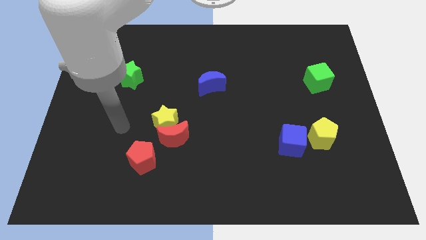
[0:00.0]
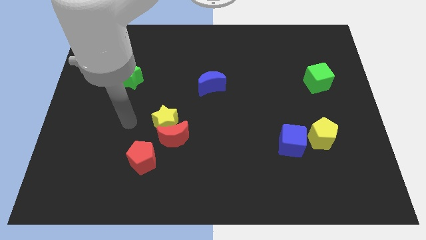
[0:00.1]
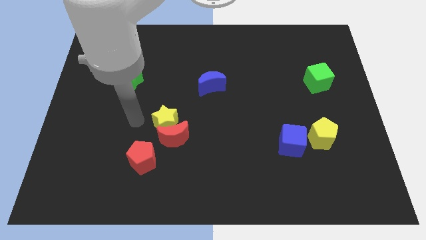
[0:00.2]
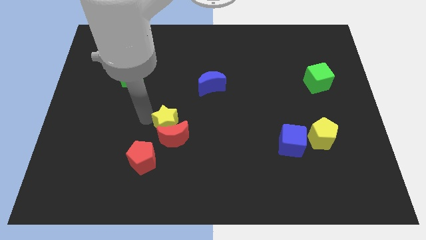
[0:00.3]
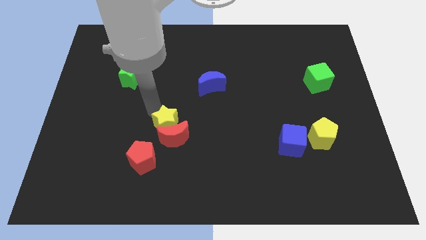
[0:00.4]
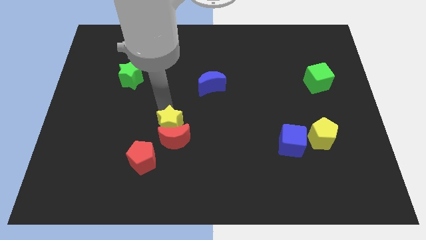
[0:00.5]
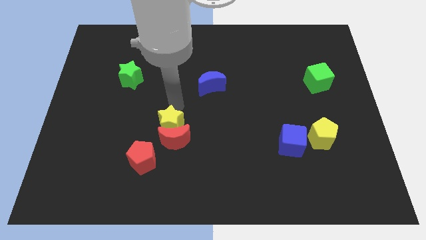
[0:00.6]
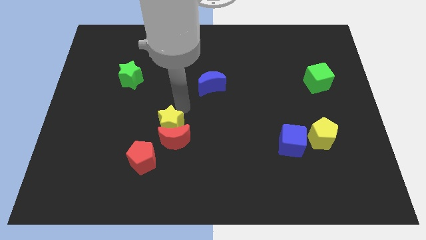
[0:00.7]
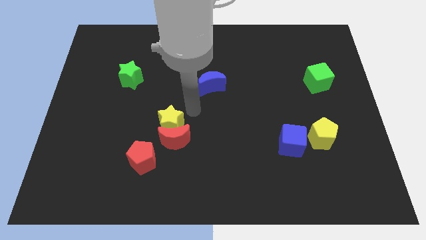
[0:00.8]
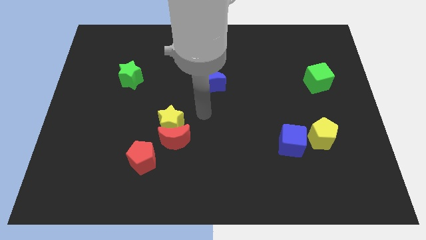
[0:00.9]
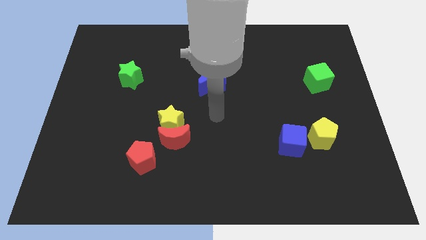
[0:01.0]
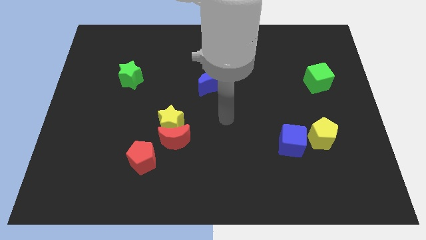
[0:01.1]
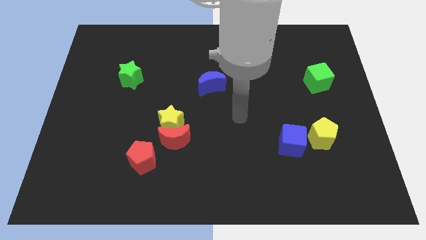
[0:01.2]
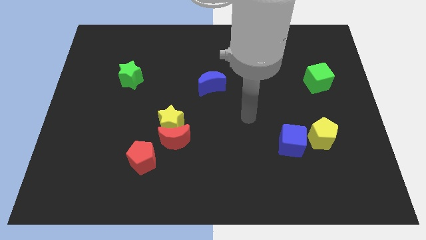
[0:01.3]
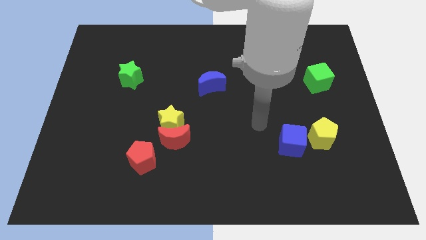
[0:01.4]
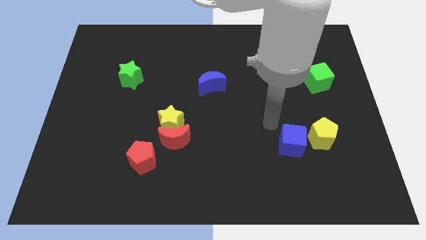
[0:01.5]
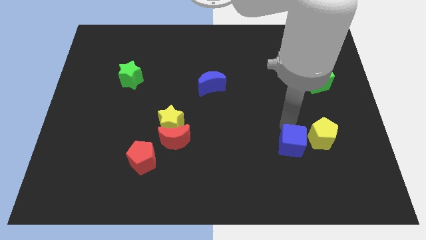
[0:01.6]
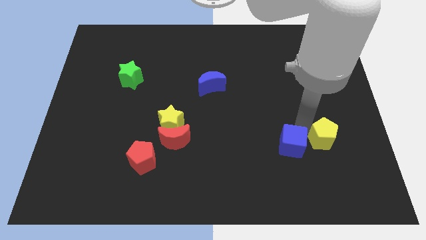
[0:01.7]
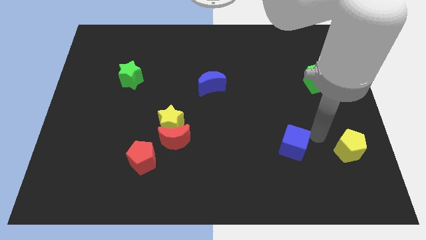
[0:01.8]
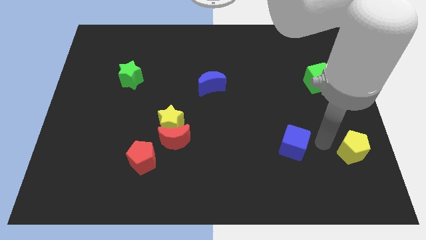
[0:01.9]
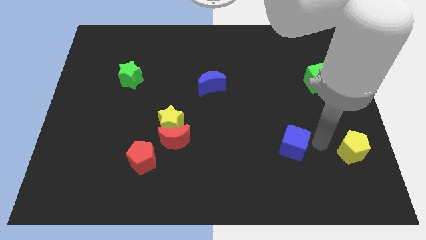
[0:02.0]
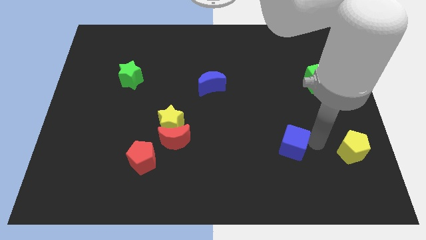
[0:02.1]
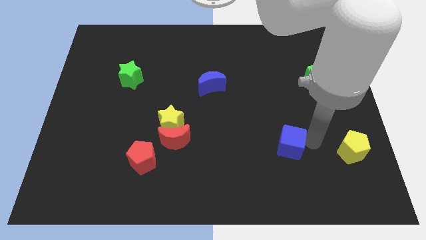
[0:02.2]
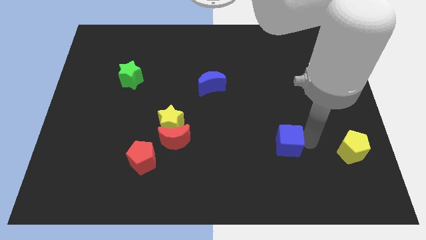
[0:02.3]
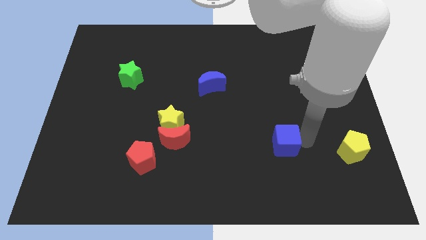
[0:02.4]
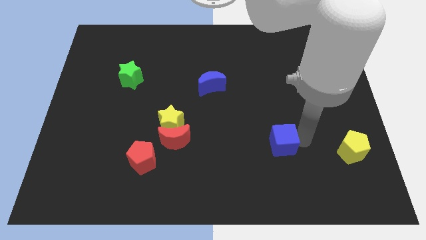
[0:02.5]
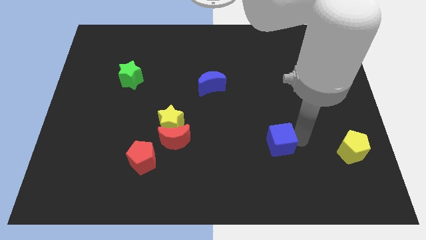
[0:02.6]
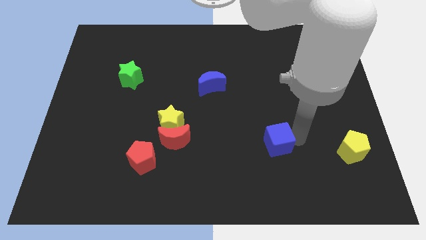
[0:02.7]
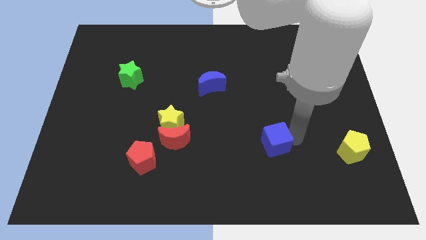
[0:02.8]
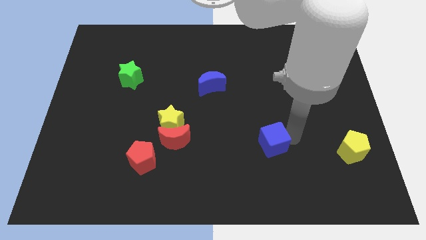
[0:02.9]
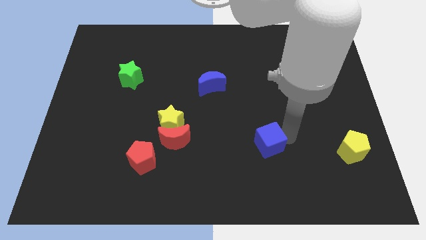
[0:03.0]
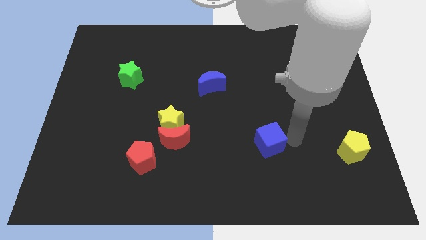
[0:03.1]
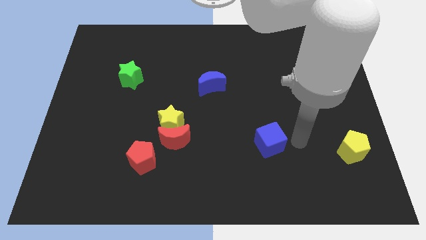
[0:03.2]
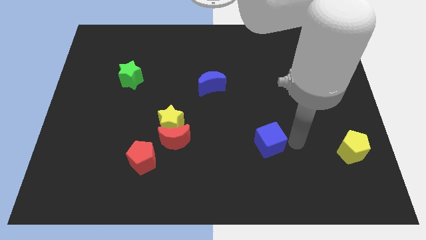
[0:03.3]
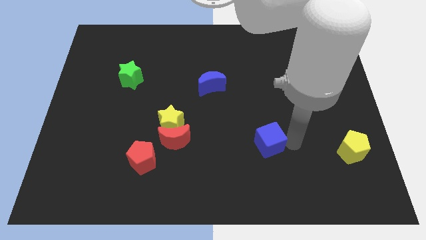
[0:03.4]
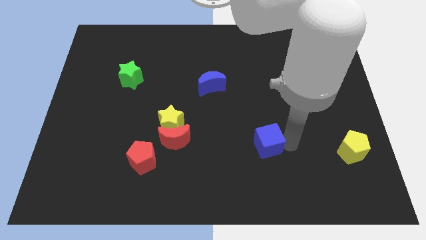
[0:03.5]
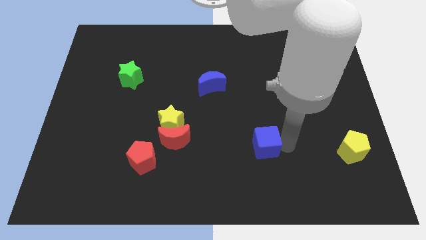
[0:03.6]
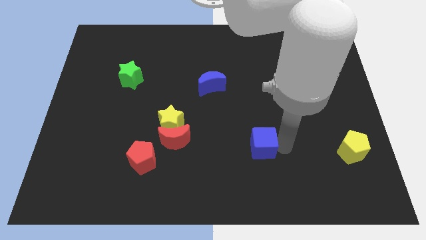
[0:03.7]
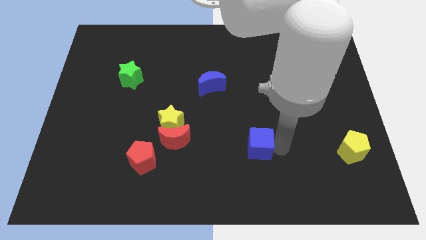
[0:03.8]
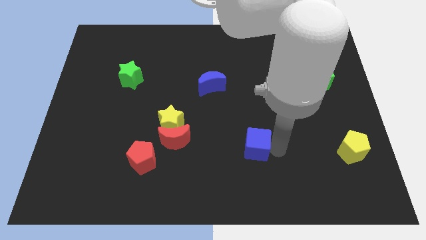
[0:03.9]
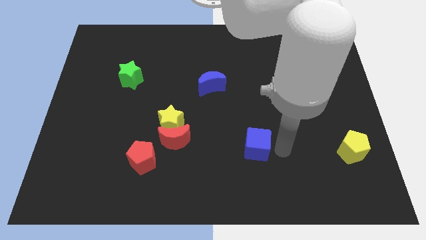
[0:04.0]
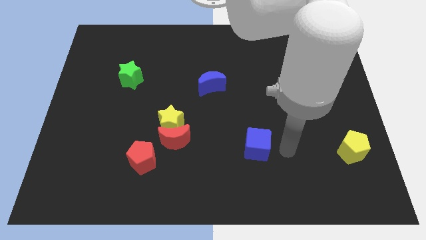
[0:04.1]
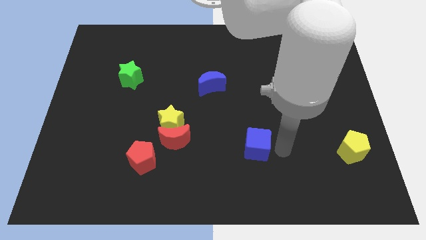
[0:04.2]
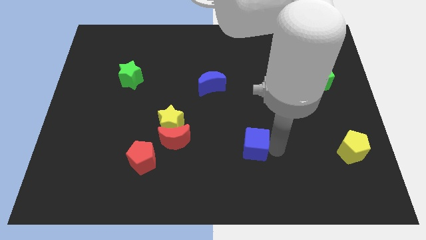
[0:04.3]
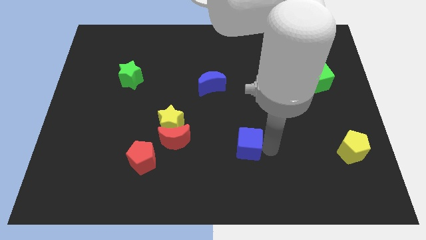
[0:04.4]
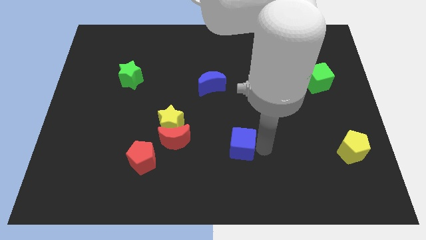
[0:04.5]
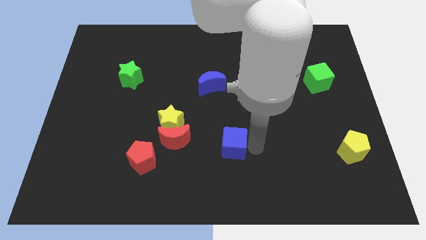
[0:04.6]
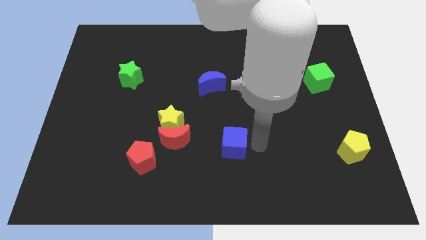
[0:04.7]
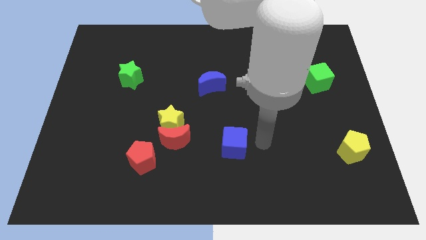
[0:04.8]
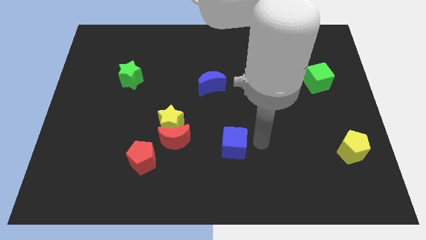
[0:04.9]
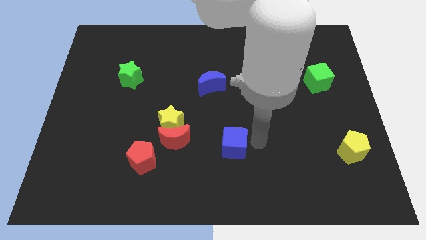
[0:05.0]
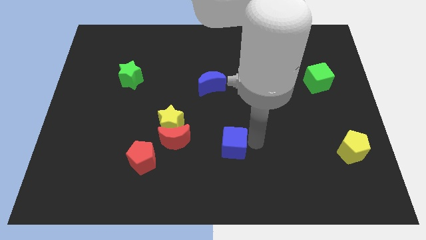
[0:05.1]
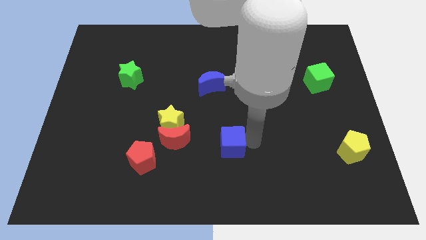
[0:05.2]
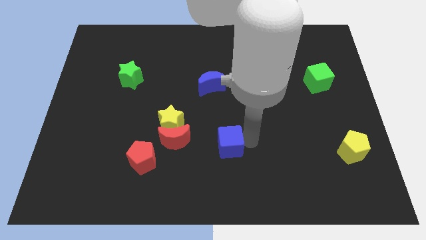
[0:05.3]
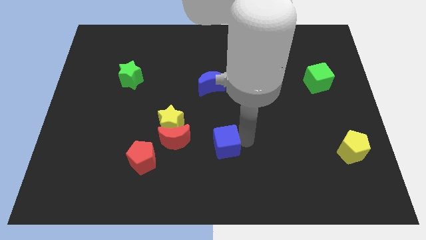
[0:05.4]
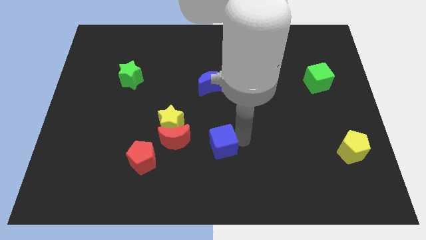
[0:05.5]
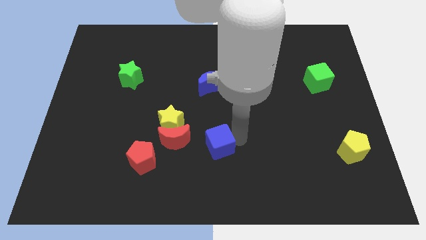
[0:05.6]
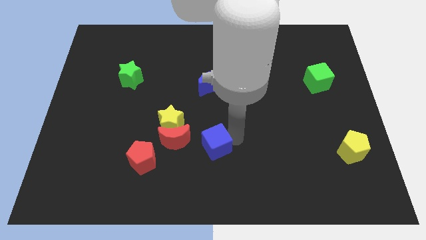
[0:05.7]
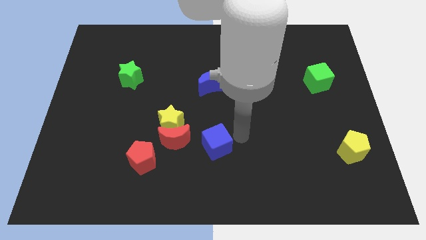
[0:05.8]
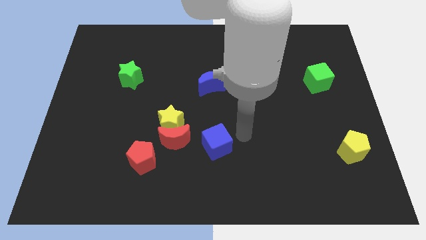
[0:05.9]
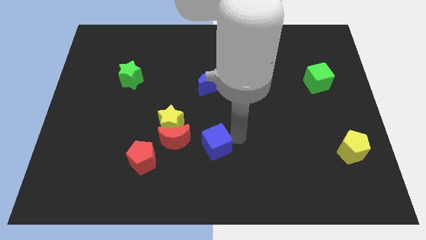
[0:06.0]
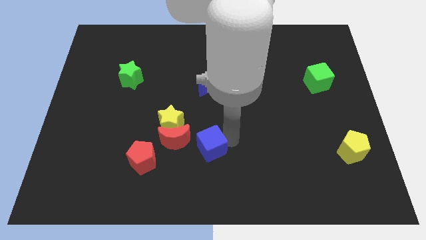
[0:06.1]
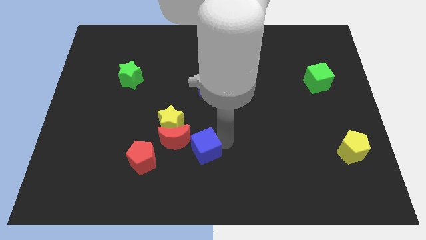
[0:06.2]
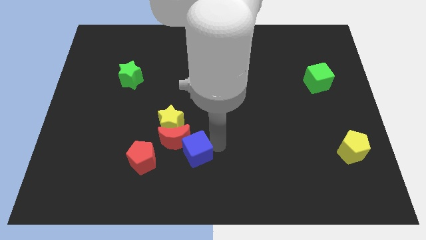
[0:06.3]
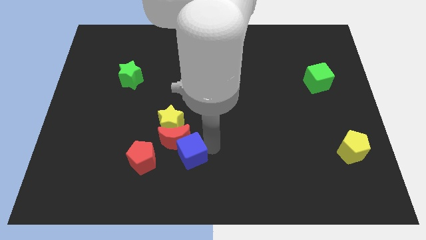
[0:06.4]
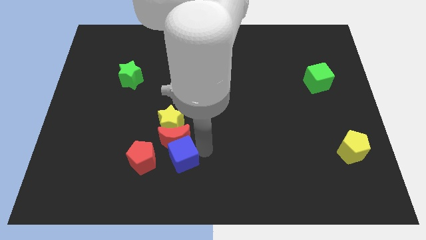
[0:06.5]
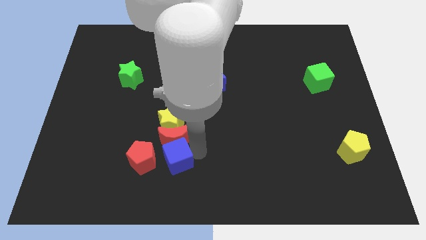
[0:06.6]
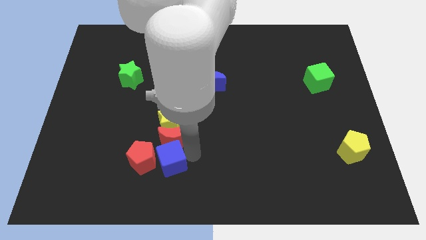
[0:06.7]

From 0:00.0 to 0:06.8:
slide the blue cube towards the red pentagon
